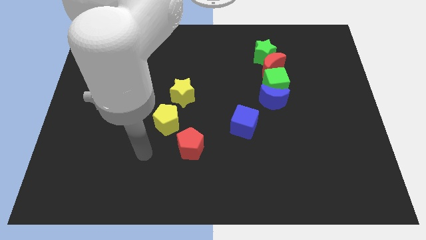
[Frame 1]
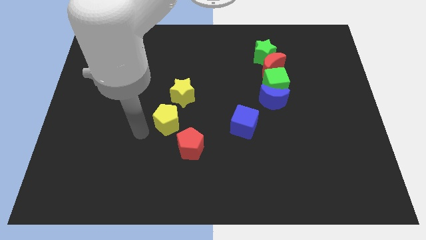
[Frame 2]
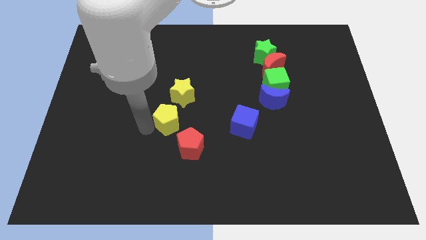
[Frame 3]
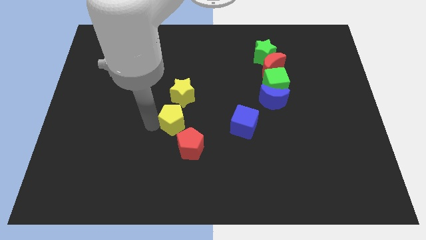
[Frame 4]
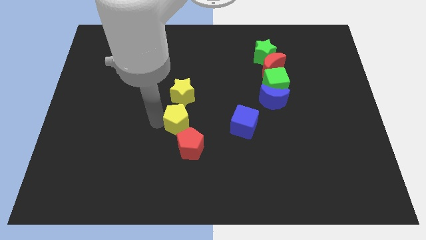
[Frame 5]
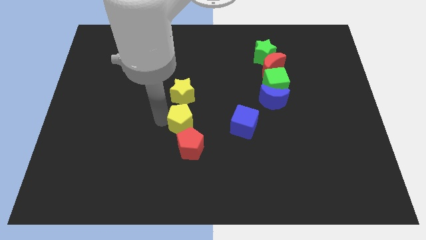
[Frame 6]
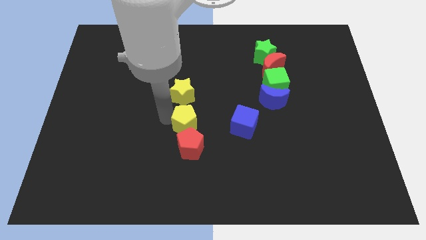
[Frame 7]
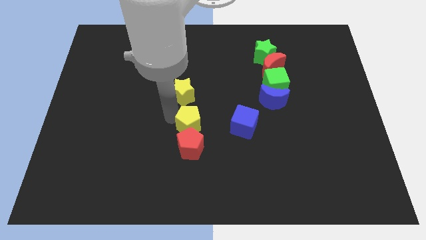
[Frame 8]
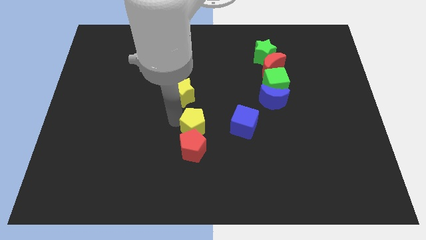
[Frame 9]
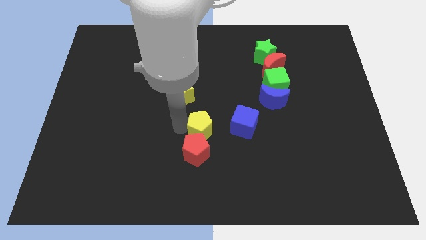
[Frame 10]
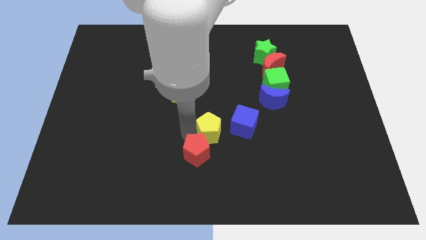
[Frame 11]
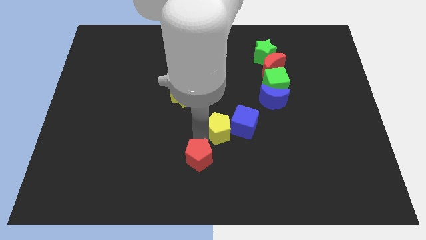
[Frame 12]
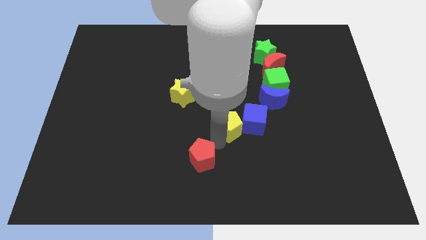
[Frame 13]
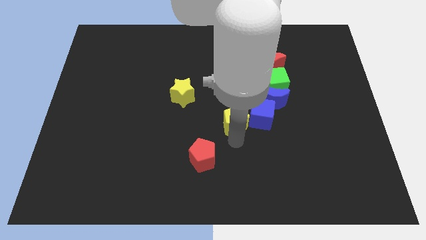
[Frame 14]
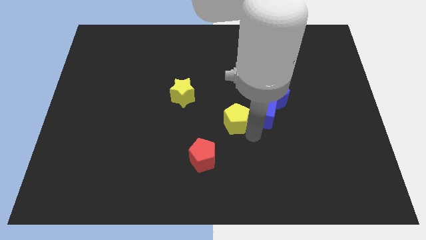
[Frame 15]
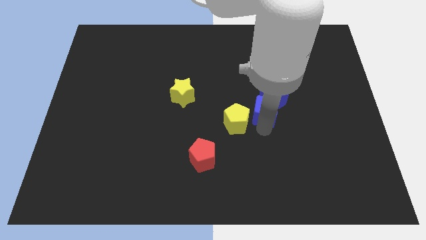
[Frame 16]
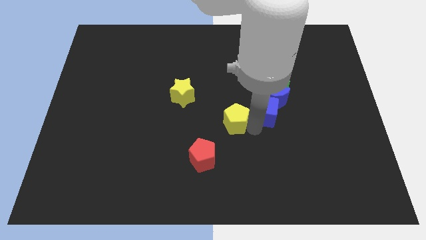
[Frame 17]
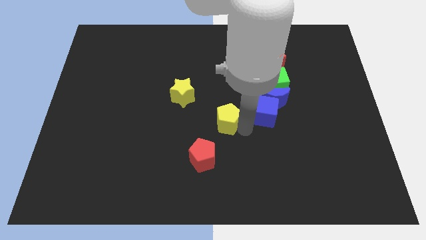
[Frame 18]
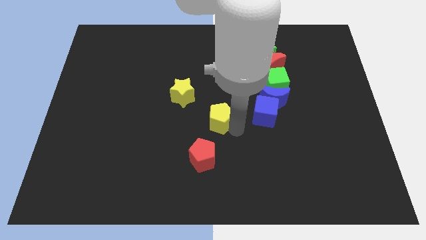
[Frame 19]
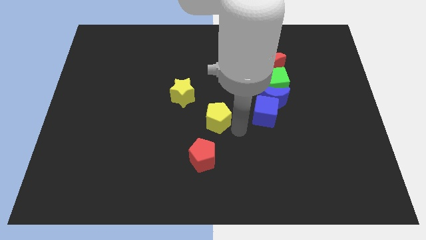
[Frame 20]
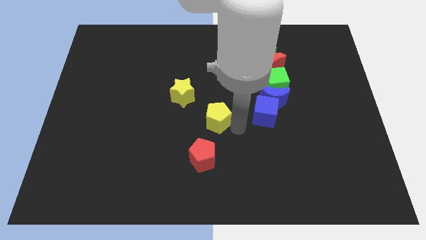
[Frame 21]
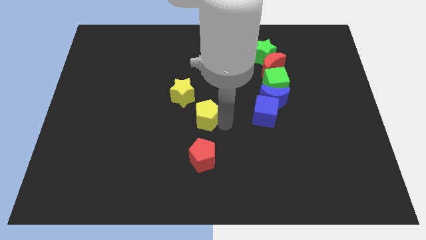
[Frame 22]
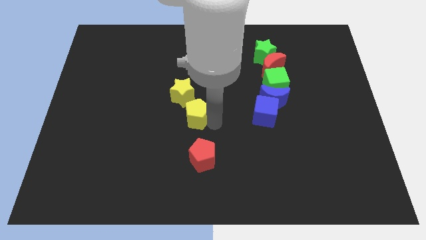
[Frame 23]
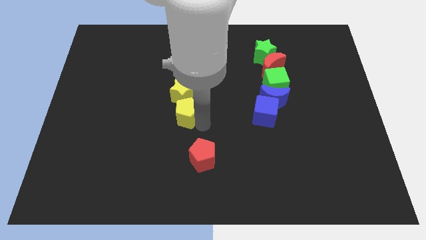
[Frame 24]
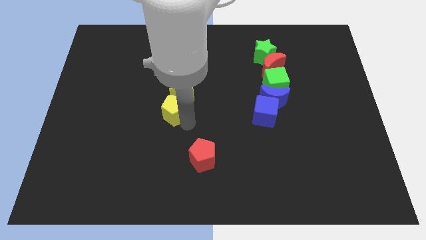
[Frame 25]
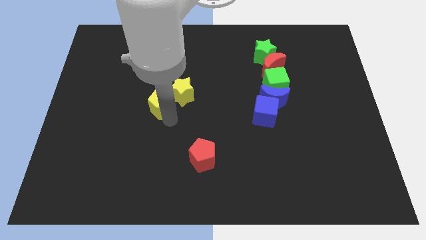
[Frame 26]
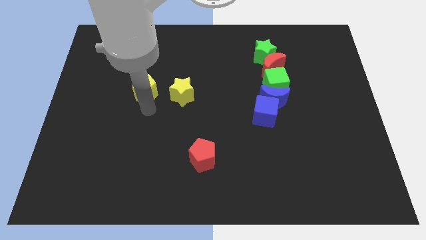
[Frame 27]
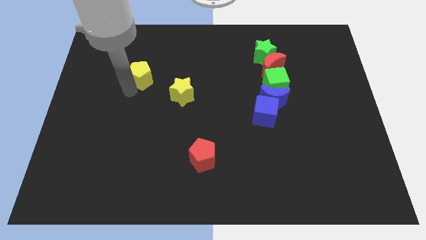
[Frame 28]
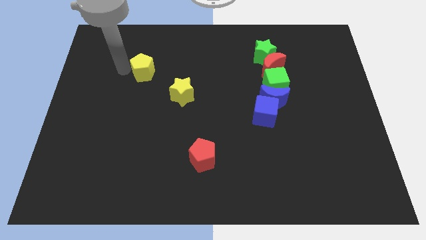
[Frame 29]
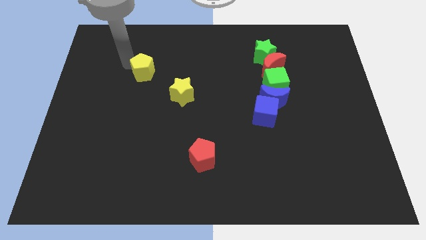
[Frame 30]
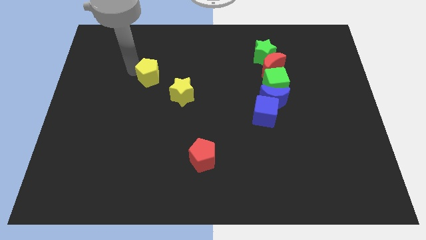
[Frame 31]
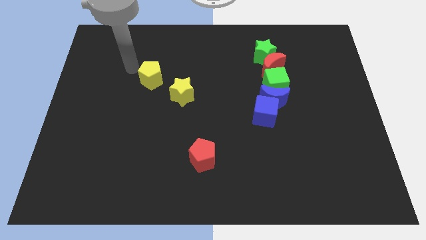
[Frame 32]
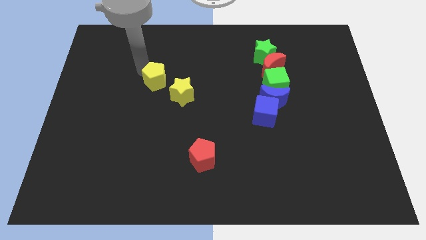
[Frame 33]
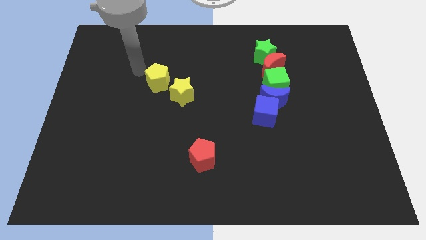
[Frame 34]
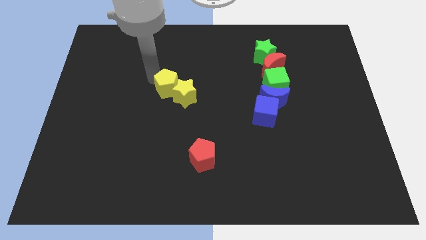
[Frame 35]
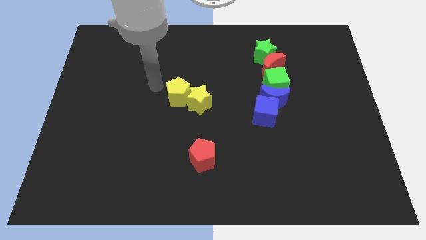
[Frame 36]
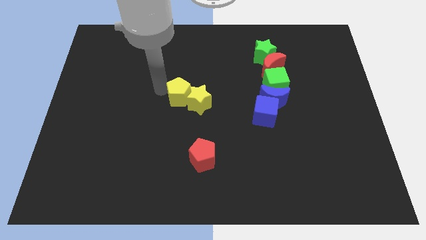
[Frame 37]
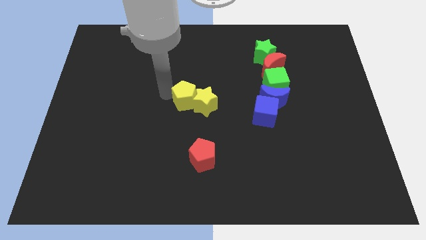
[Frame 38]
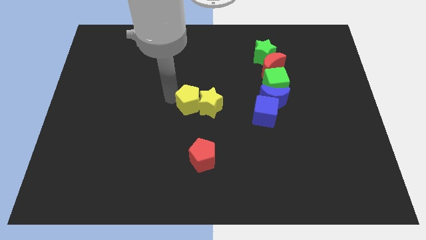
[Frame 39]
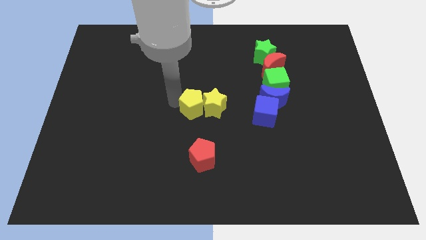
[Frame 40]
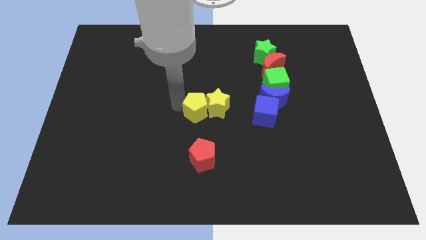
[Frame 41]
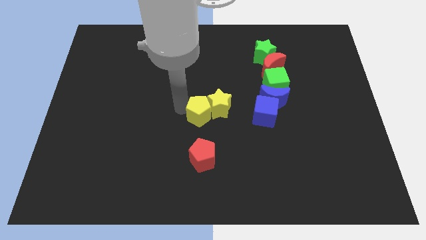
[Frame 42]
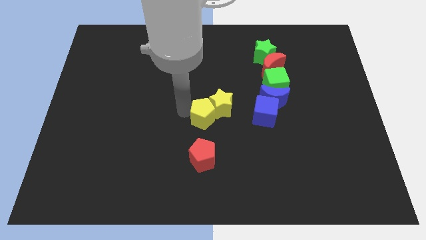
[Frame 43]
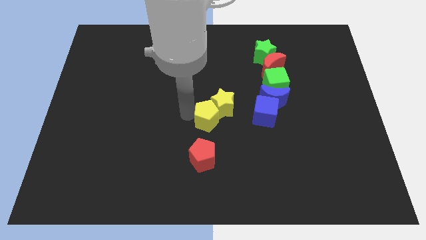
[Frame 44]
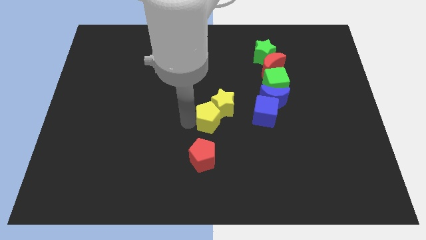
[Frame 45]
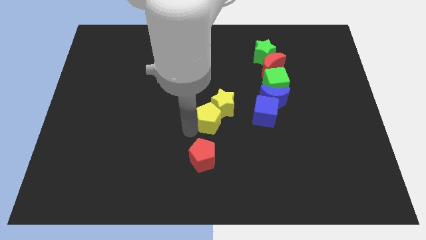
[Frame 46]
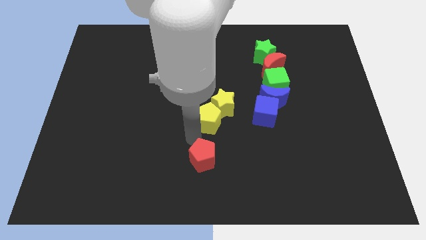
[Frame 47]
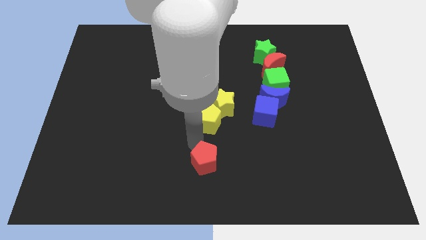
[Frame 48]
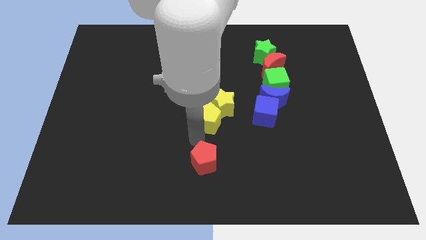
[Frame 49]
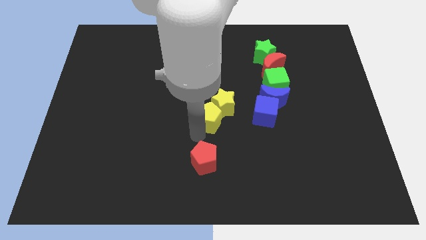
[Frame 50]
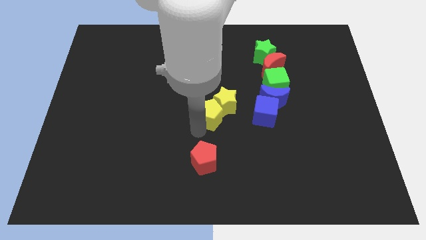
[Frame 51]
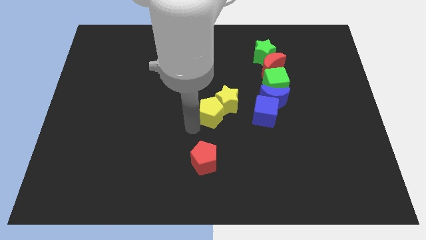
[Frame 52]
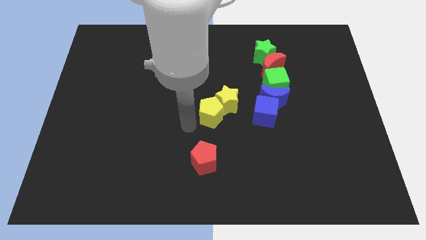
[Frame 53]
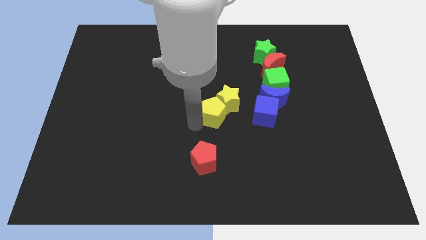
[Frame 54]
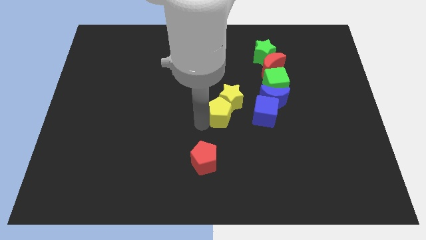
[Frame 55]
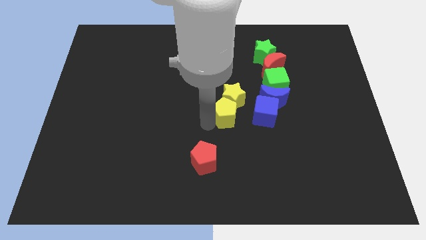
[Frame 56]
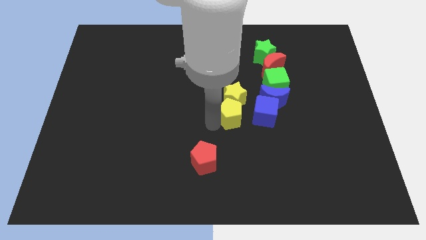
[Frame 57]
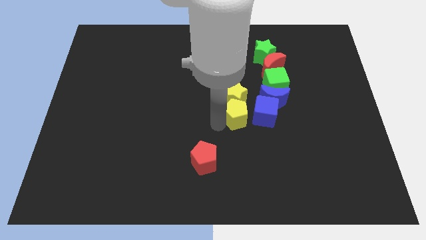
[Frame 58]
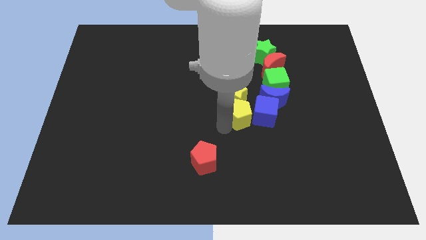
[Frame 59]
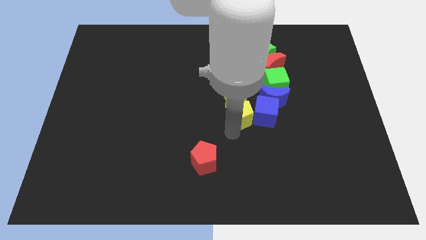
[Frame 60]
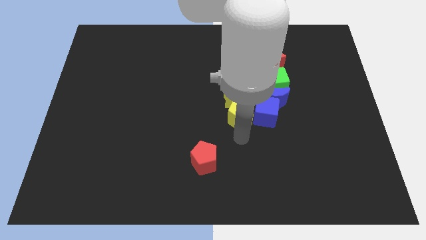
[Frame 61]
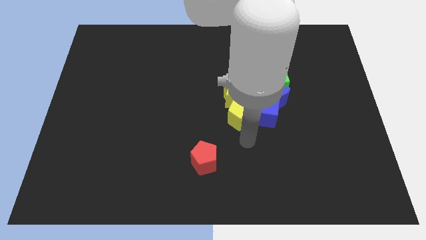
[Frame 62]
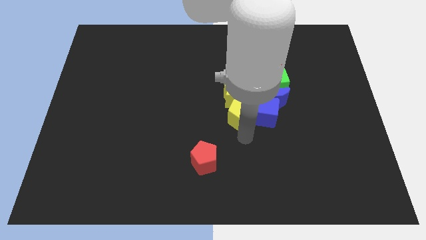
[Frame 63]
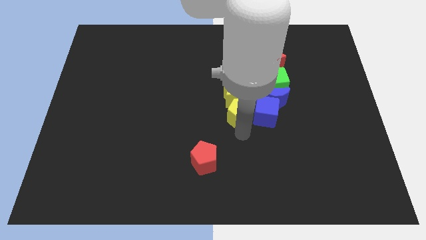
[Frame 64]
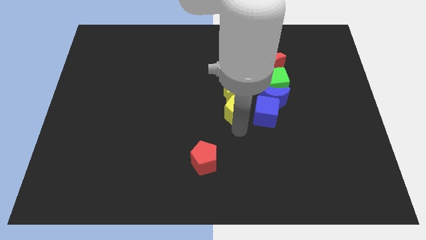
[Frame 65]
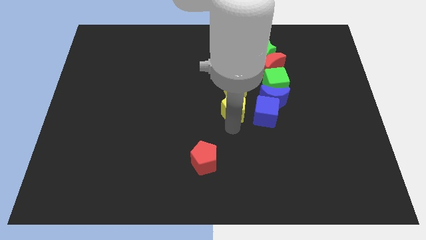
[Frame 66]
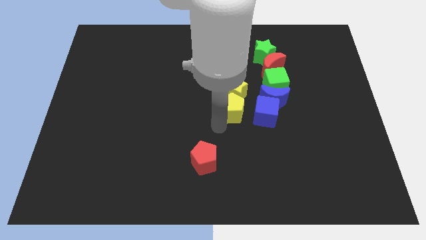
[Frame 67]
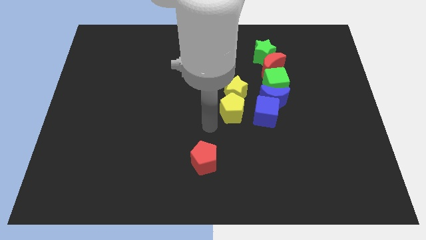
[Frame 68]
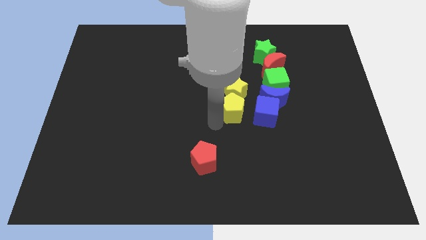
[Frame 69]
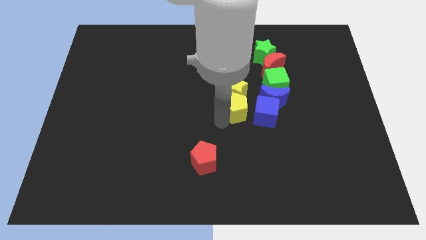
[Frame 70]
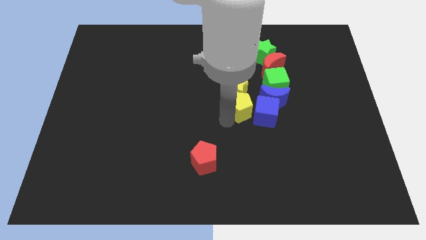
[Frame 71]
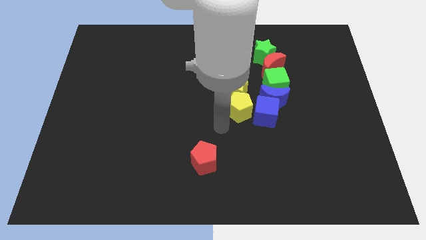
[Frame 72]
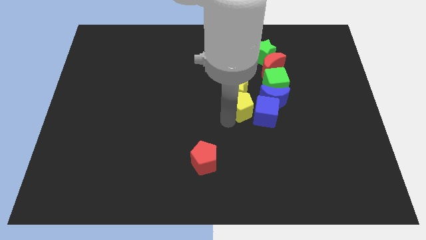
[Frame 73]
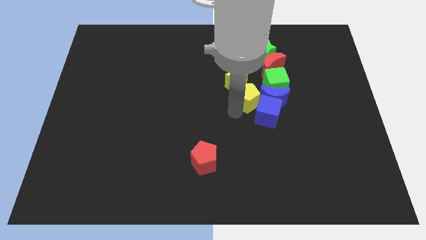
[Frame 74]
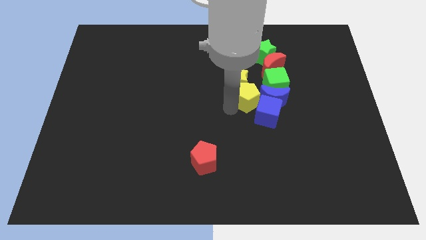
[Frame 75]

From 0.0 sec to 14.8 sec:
put the yellow pentagon towards the blue moon
